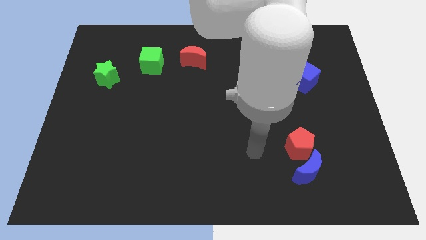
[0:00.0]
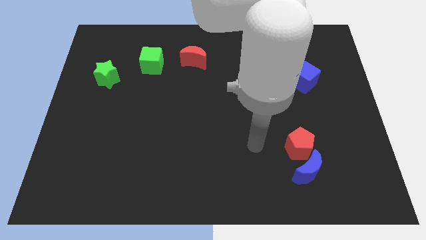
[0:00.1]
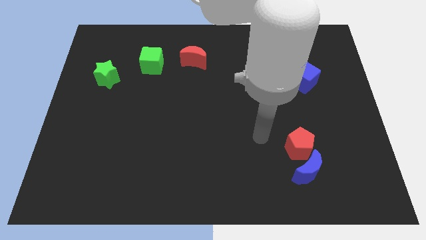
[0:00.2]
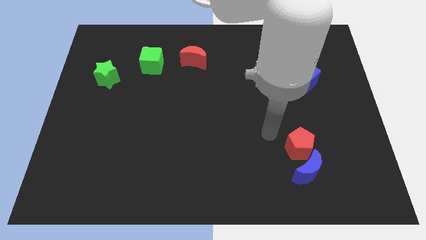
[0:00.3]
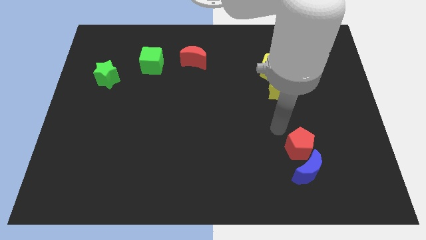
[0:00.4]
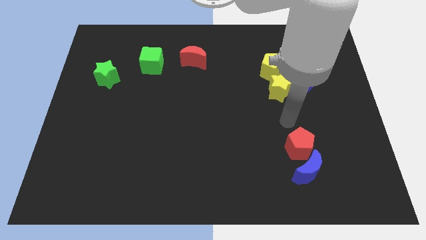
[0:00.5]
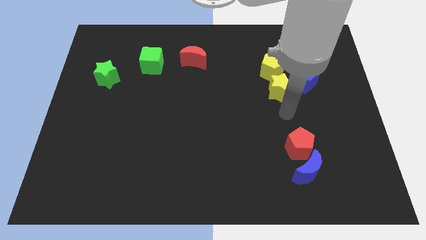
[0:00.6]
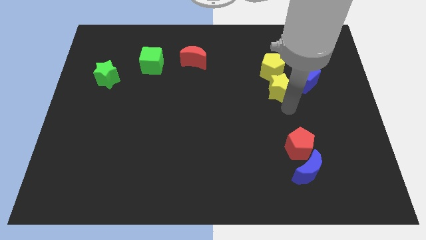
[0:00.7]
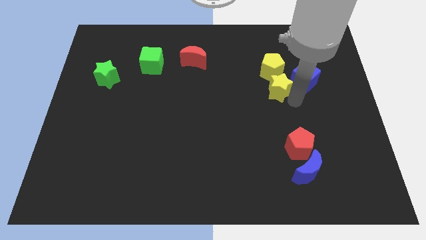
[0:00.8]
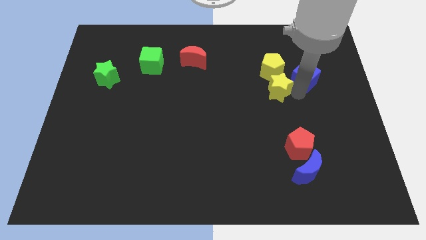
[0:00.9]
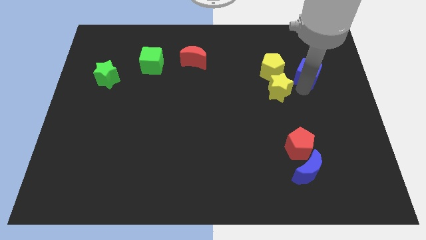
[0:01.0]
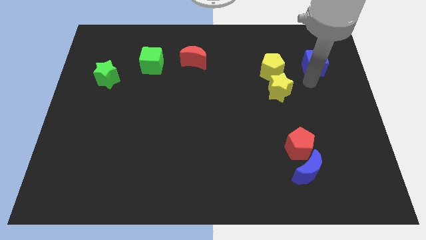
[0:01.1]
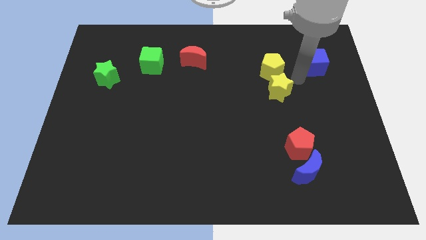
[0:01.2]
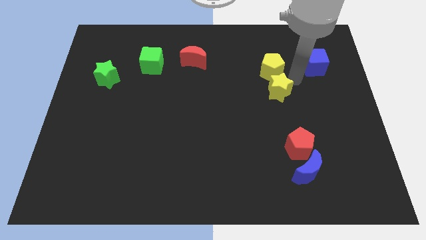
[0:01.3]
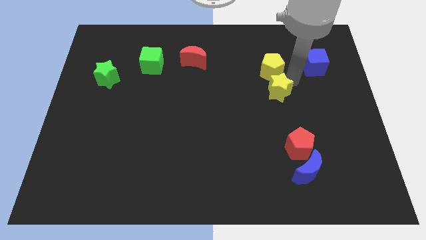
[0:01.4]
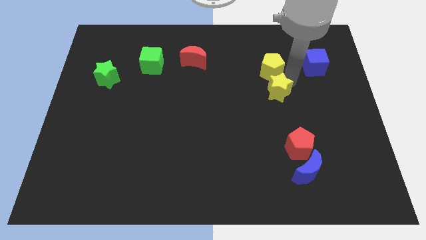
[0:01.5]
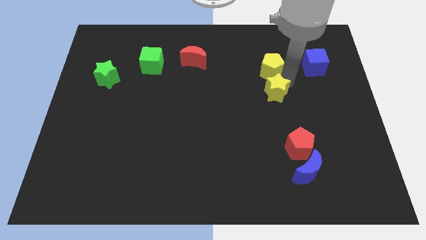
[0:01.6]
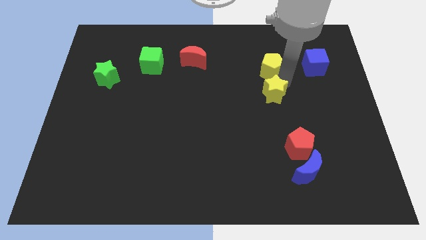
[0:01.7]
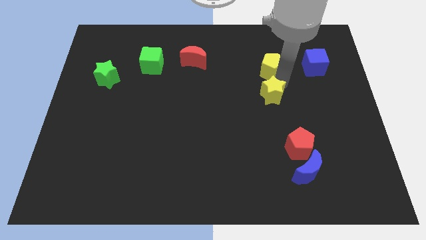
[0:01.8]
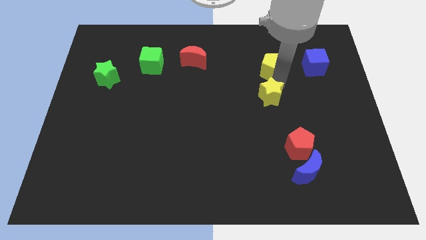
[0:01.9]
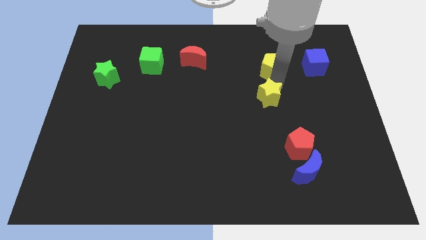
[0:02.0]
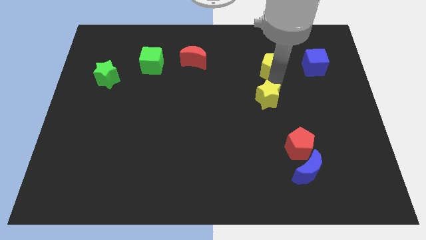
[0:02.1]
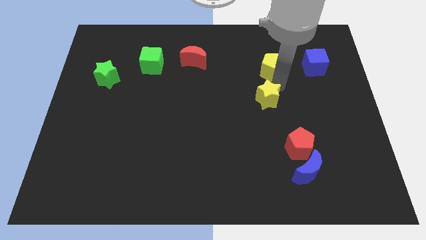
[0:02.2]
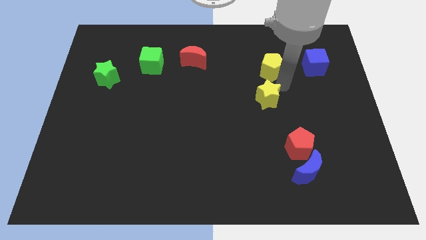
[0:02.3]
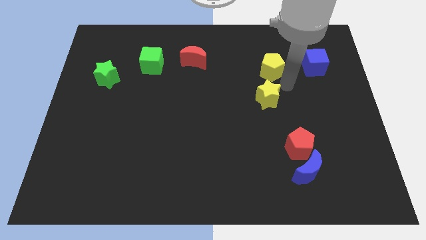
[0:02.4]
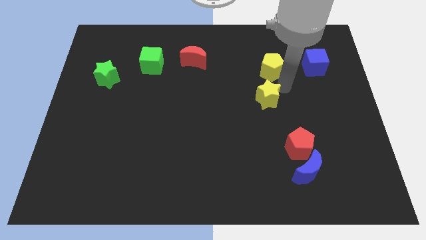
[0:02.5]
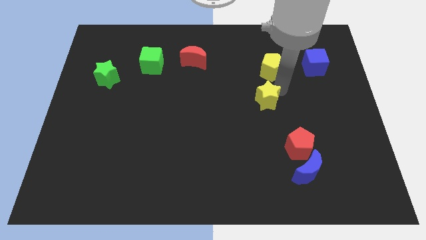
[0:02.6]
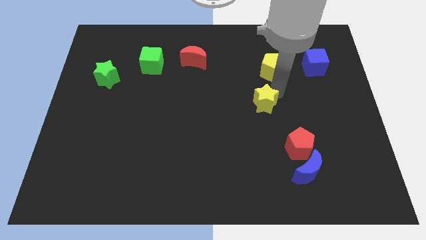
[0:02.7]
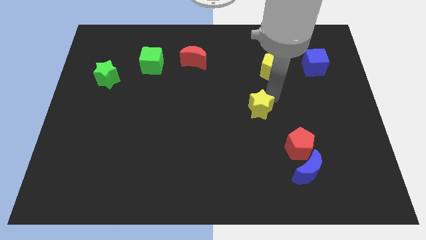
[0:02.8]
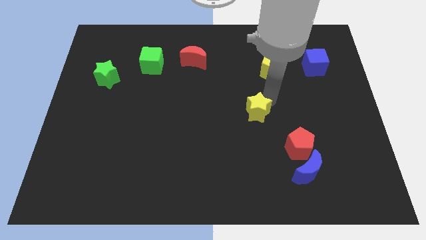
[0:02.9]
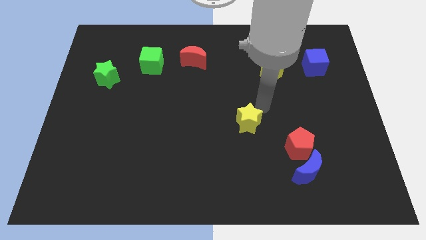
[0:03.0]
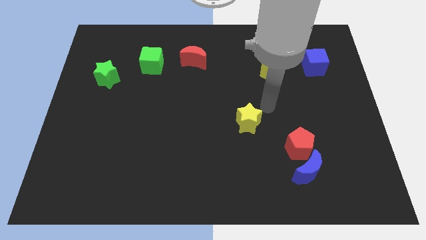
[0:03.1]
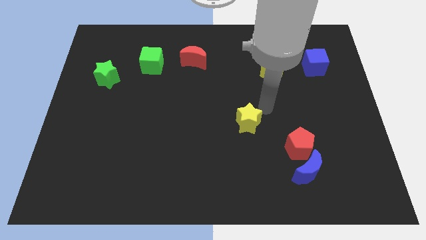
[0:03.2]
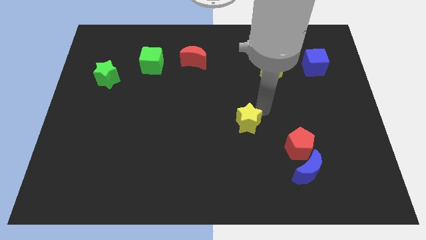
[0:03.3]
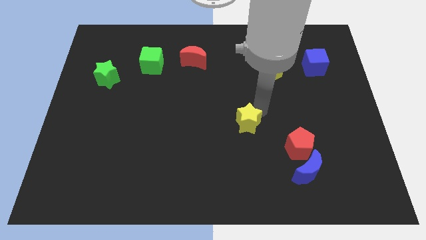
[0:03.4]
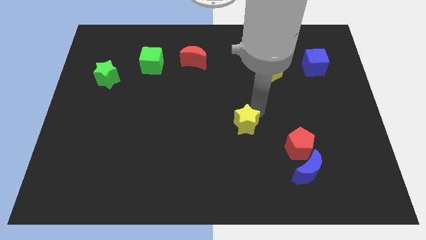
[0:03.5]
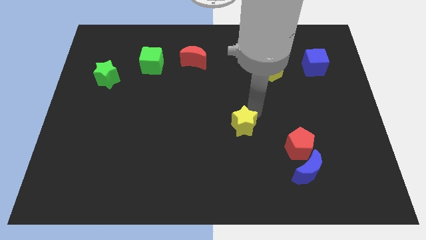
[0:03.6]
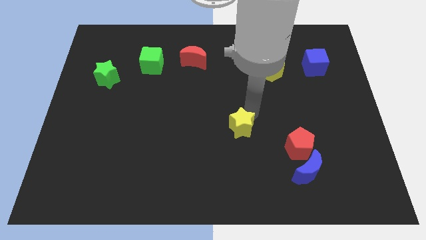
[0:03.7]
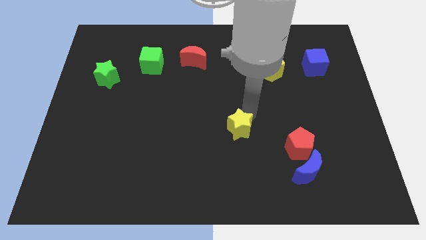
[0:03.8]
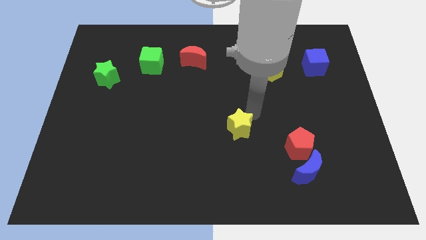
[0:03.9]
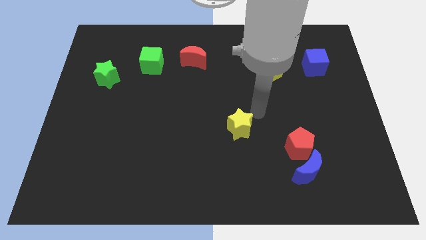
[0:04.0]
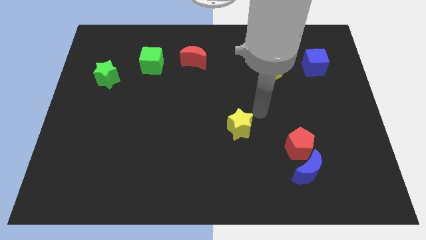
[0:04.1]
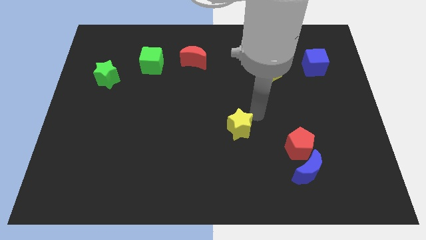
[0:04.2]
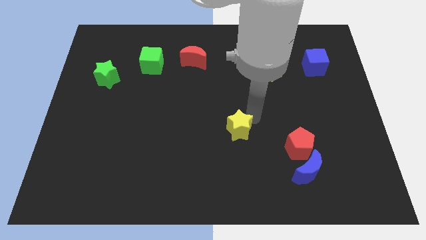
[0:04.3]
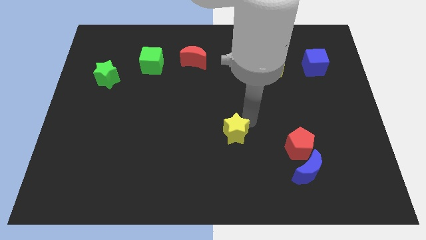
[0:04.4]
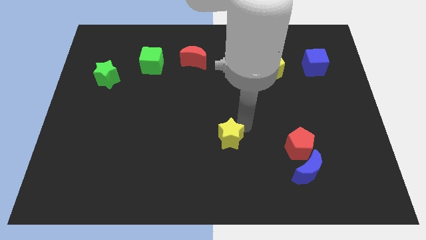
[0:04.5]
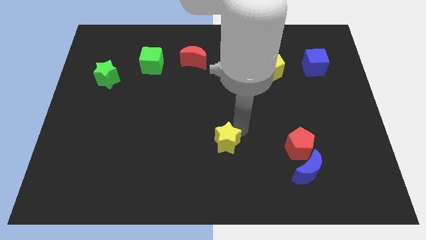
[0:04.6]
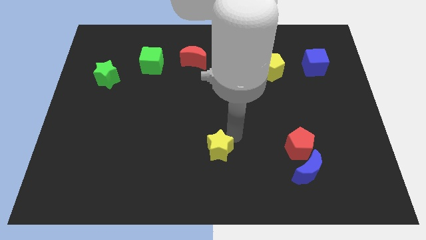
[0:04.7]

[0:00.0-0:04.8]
move the yellow star downwards and to the left

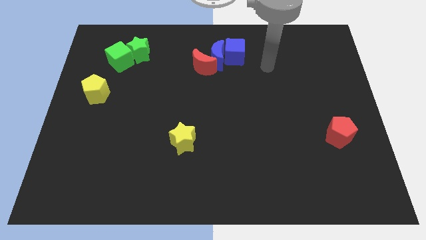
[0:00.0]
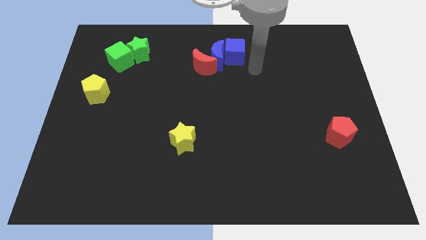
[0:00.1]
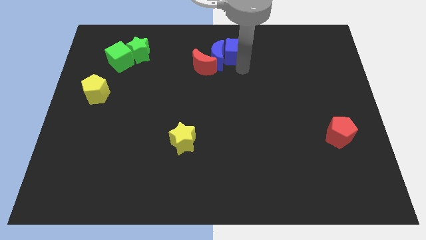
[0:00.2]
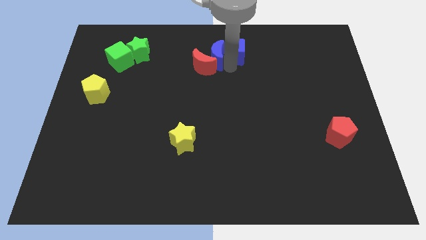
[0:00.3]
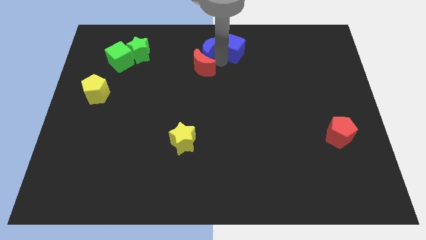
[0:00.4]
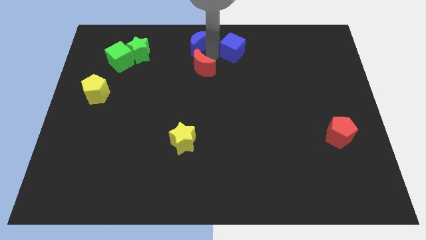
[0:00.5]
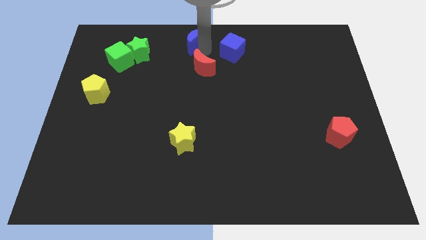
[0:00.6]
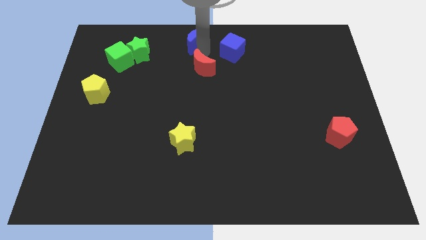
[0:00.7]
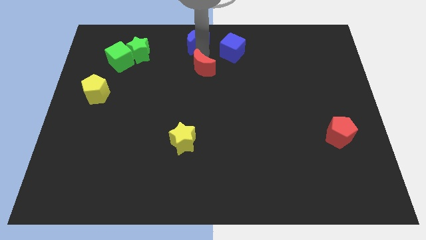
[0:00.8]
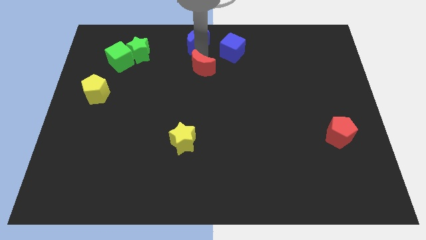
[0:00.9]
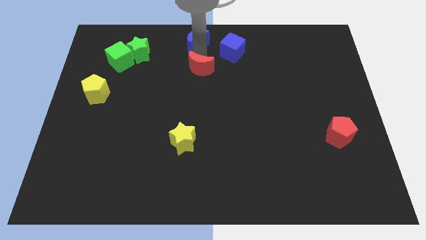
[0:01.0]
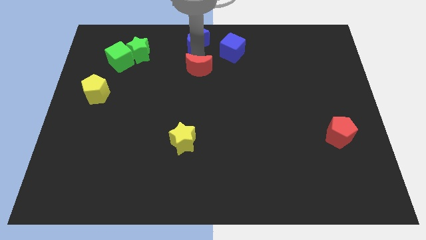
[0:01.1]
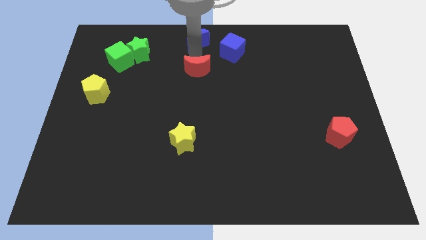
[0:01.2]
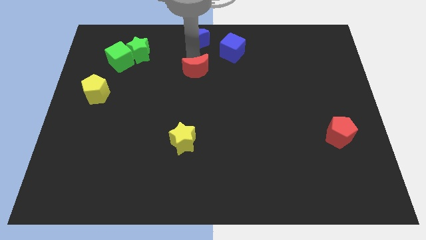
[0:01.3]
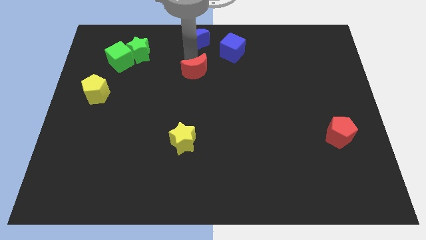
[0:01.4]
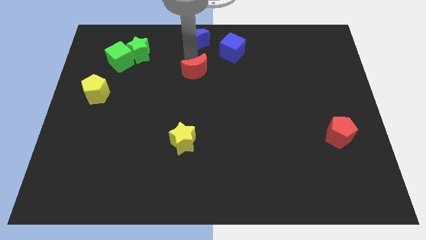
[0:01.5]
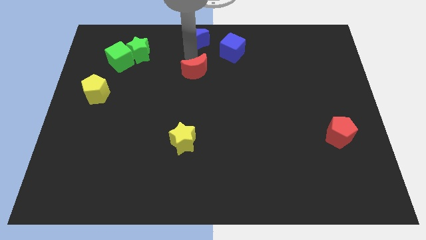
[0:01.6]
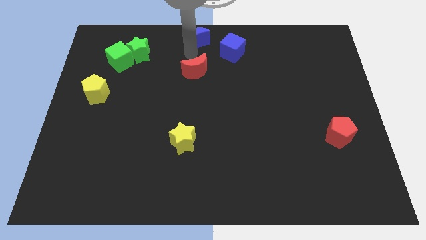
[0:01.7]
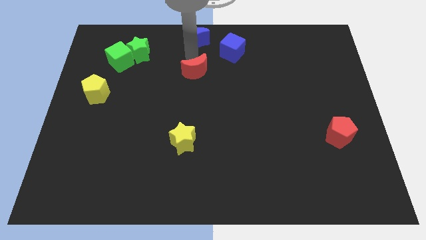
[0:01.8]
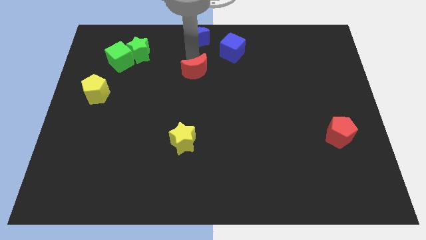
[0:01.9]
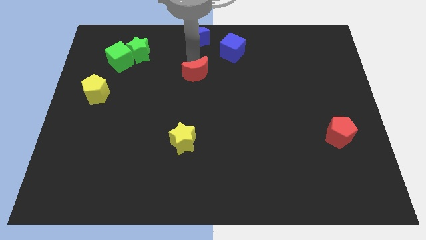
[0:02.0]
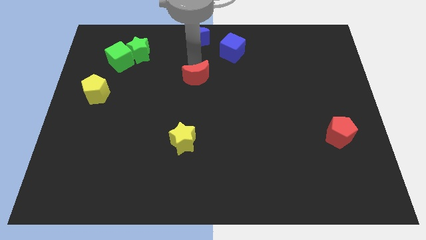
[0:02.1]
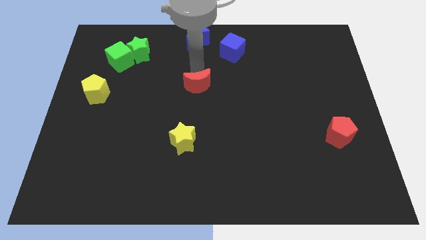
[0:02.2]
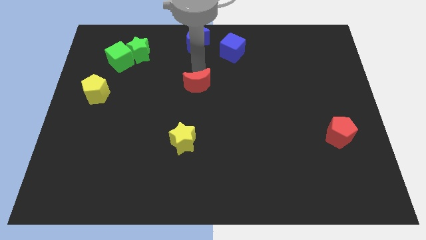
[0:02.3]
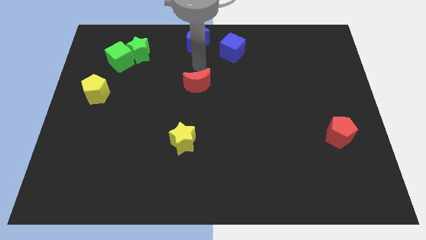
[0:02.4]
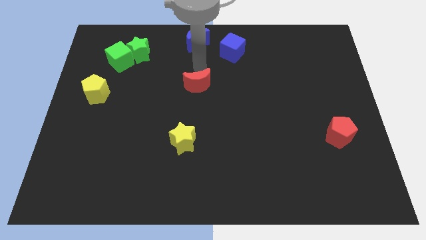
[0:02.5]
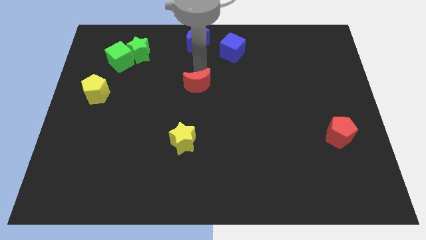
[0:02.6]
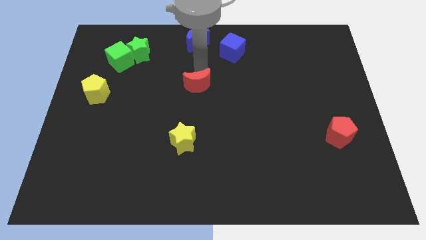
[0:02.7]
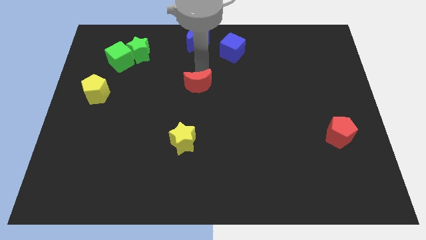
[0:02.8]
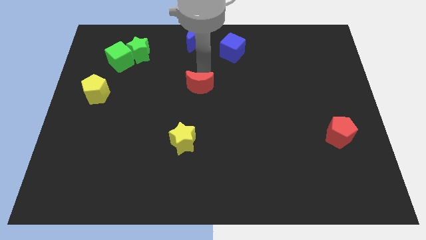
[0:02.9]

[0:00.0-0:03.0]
slide the red moon somewhat down

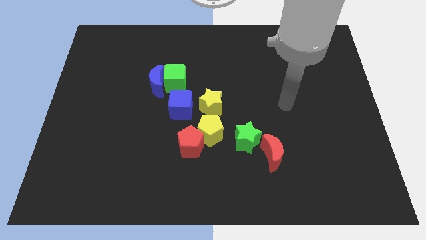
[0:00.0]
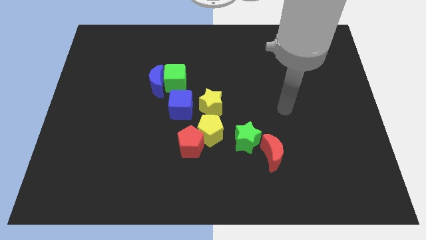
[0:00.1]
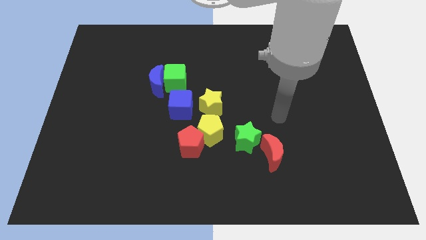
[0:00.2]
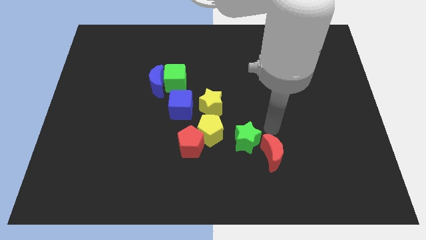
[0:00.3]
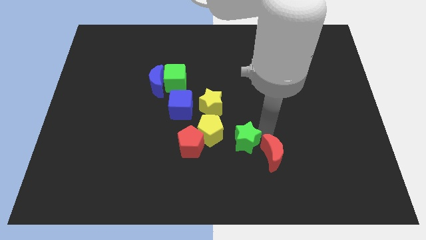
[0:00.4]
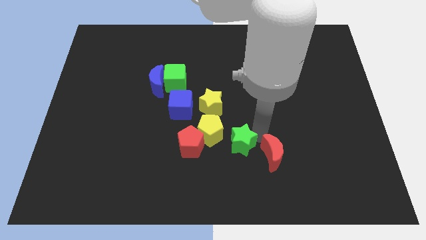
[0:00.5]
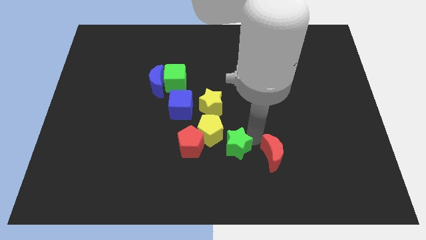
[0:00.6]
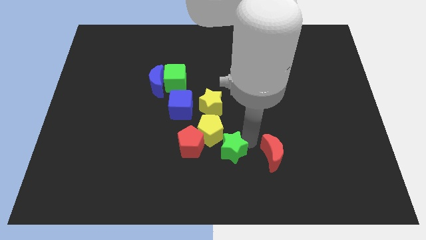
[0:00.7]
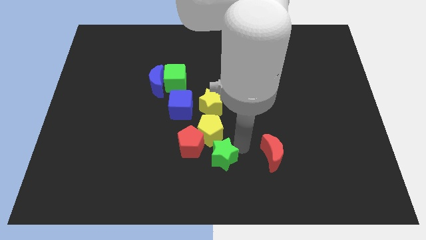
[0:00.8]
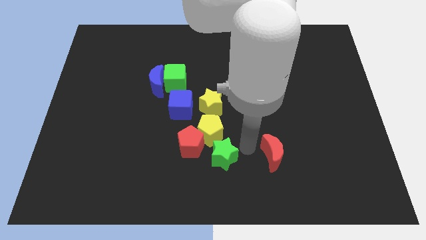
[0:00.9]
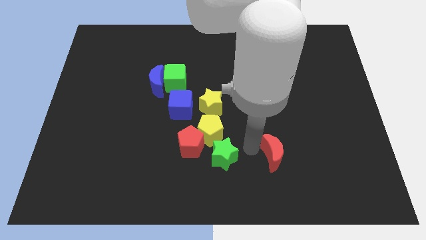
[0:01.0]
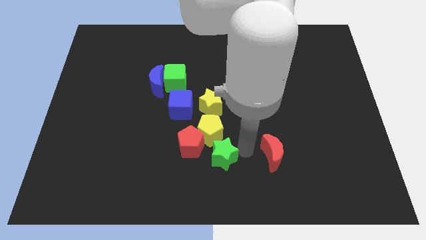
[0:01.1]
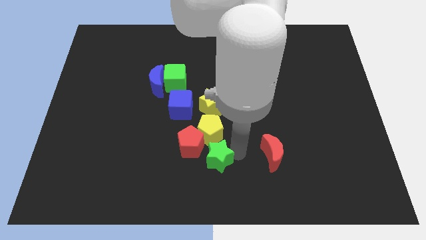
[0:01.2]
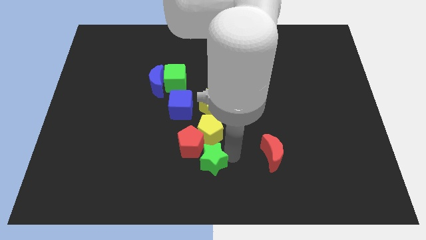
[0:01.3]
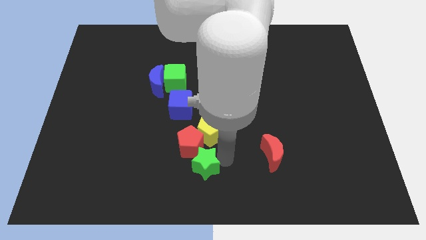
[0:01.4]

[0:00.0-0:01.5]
move the green star a little bit left
